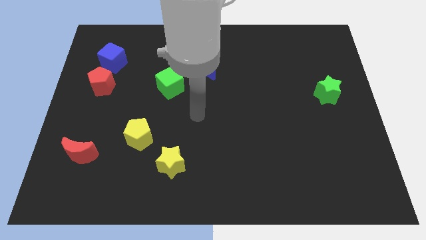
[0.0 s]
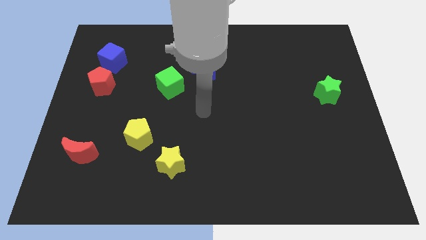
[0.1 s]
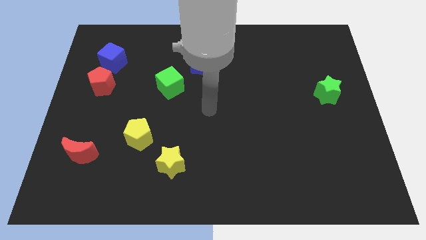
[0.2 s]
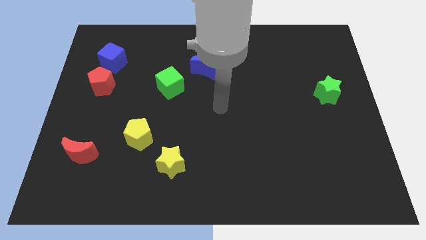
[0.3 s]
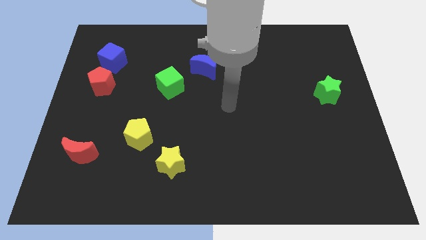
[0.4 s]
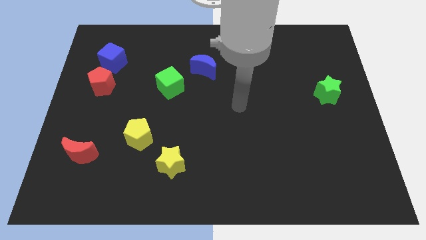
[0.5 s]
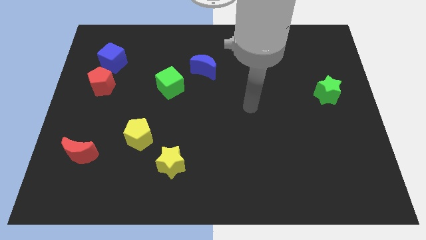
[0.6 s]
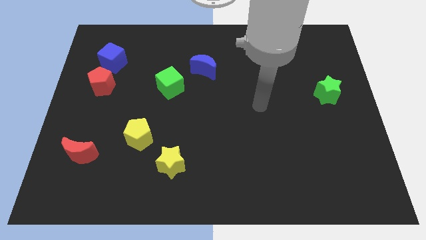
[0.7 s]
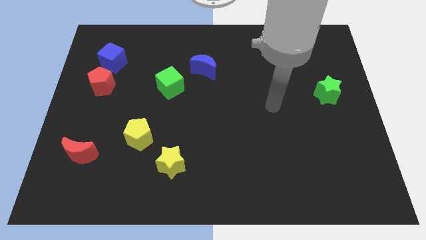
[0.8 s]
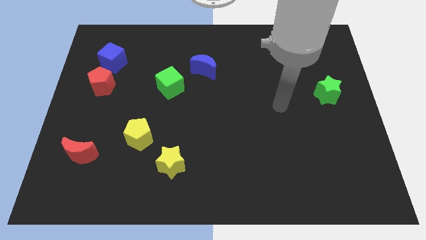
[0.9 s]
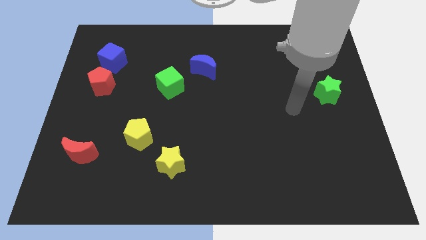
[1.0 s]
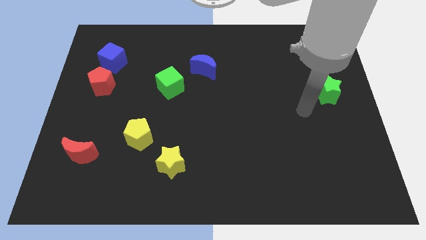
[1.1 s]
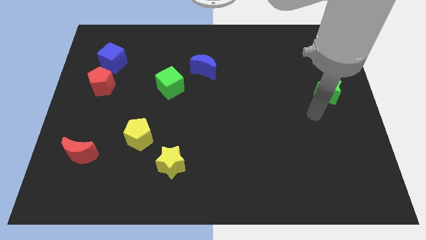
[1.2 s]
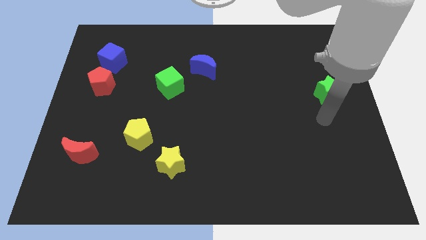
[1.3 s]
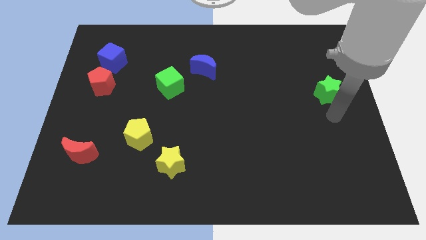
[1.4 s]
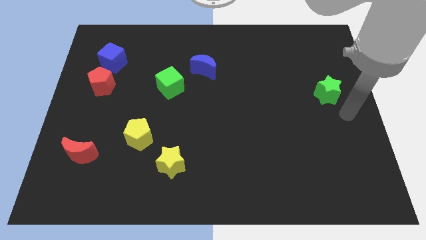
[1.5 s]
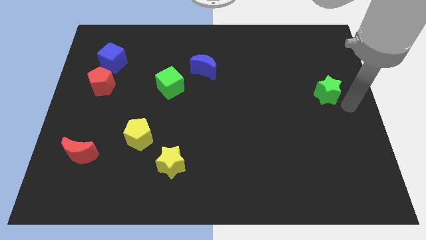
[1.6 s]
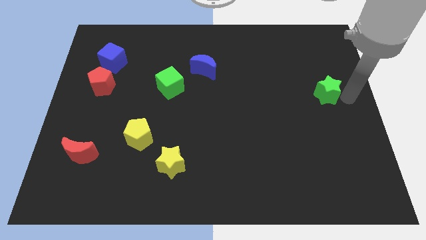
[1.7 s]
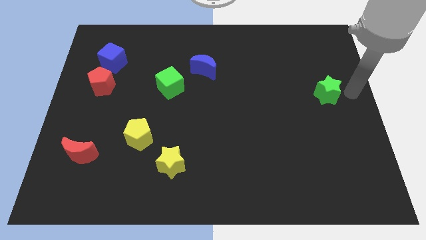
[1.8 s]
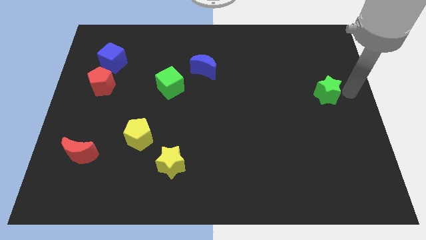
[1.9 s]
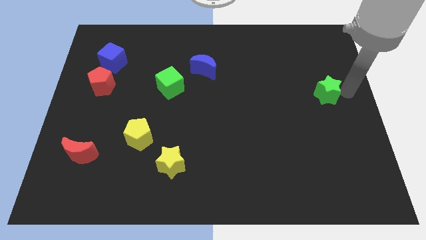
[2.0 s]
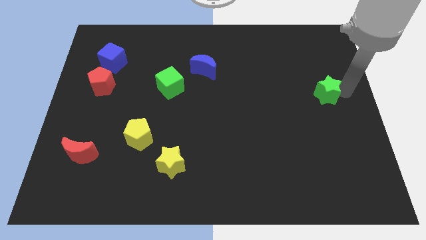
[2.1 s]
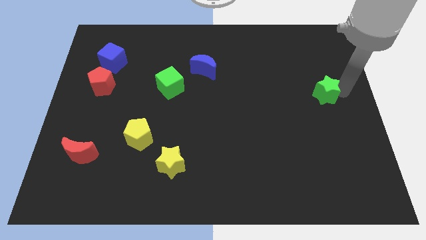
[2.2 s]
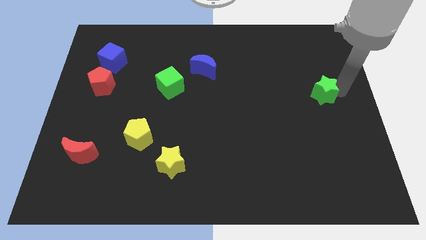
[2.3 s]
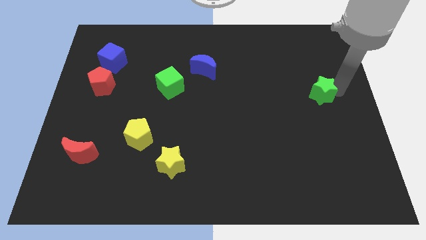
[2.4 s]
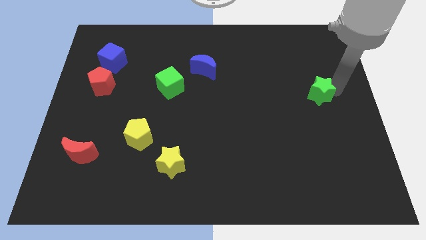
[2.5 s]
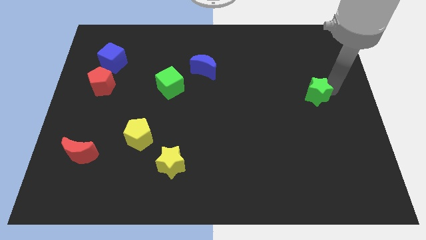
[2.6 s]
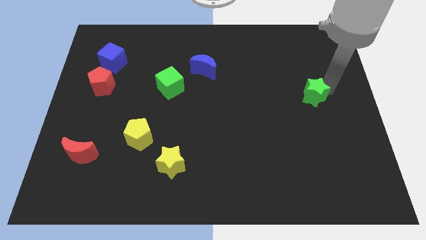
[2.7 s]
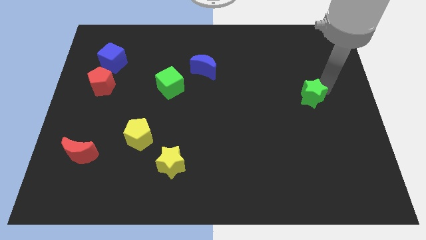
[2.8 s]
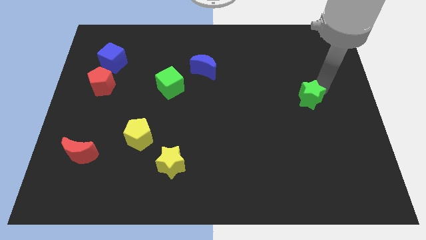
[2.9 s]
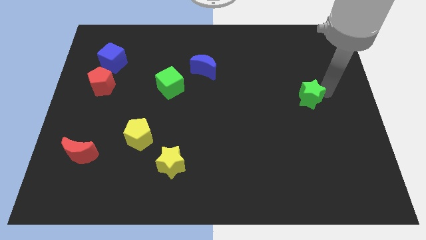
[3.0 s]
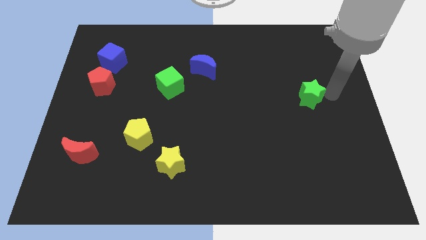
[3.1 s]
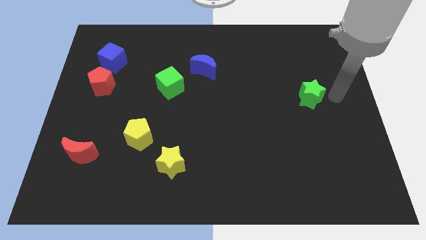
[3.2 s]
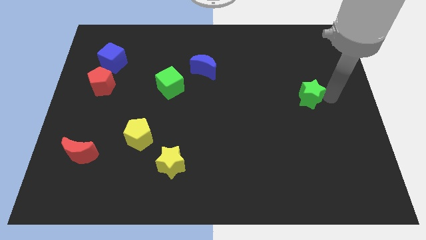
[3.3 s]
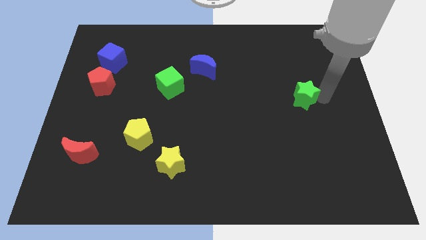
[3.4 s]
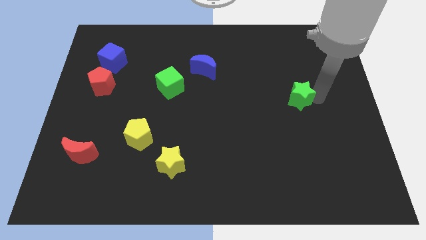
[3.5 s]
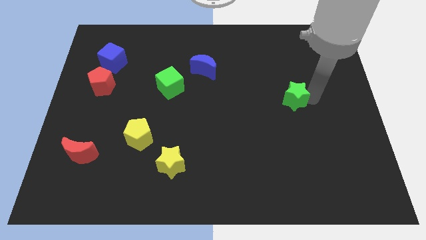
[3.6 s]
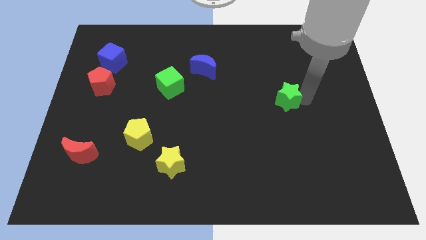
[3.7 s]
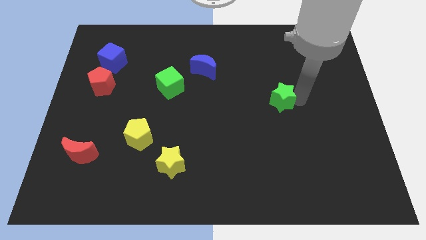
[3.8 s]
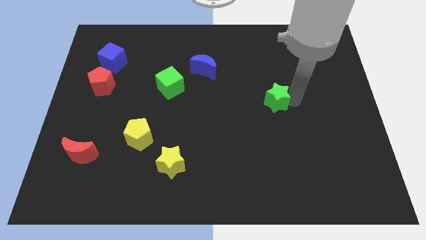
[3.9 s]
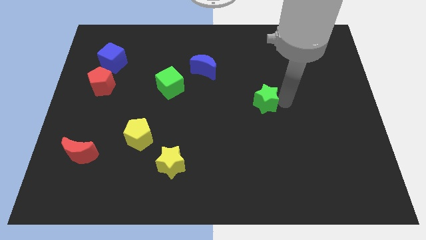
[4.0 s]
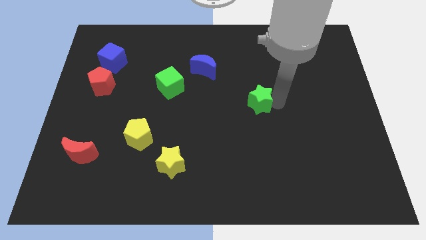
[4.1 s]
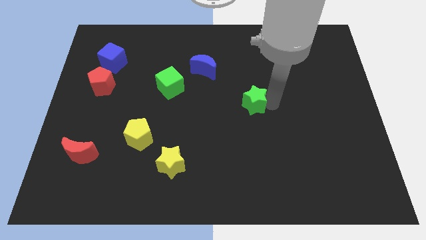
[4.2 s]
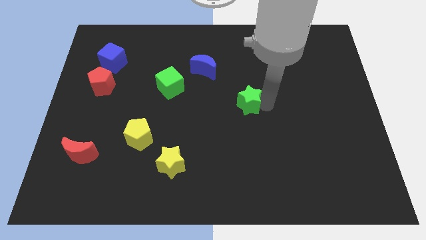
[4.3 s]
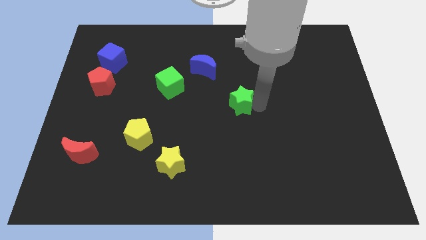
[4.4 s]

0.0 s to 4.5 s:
slide the green star left

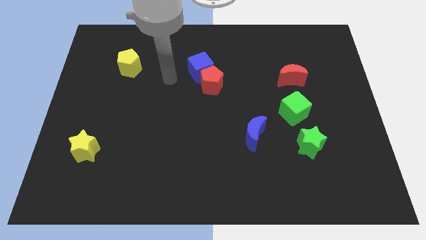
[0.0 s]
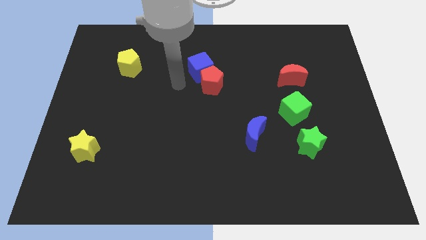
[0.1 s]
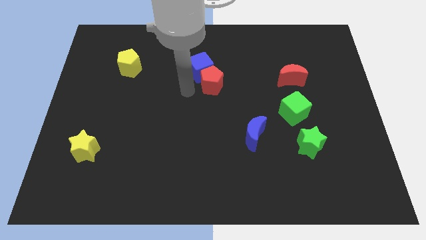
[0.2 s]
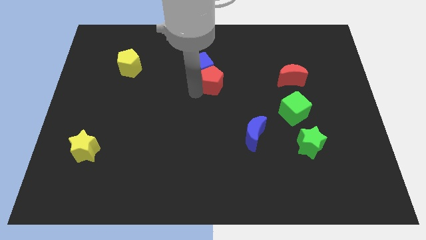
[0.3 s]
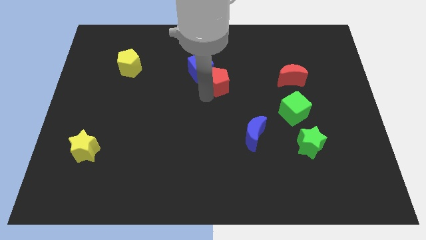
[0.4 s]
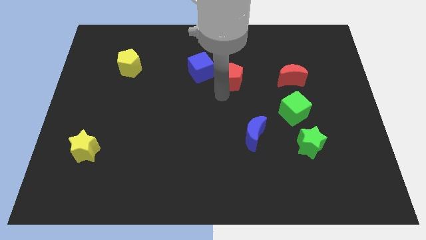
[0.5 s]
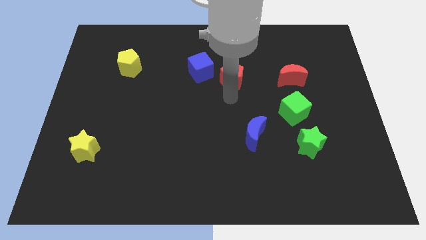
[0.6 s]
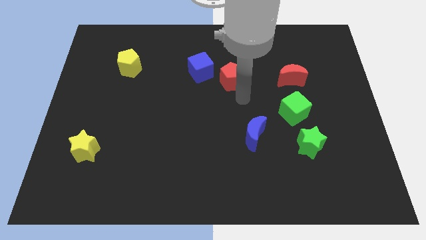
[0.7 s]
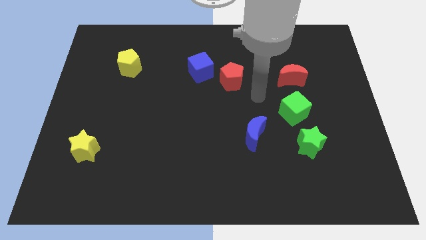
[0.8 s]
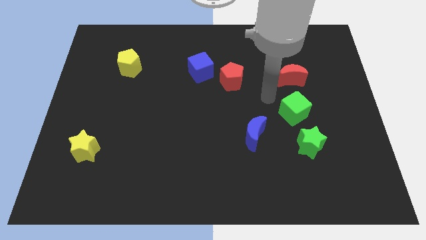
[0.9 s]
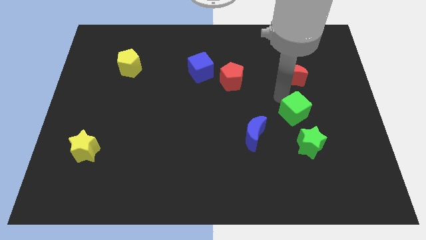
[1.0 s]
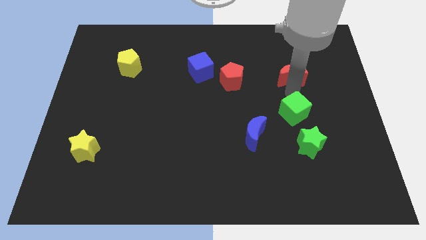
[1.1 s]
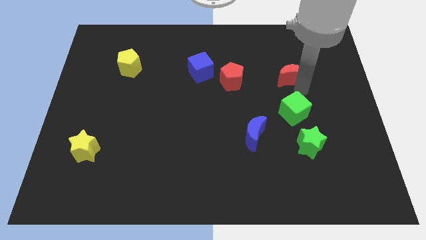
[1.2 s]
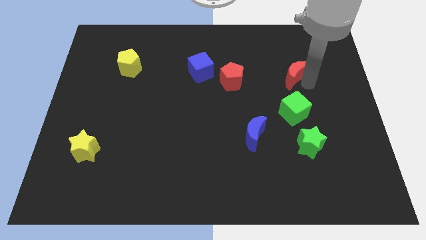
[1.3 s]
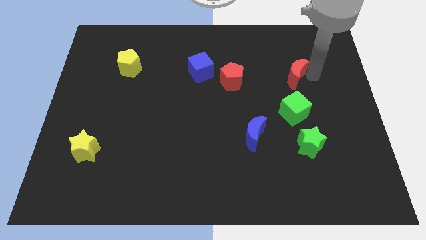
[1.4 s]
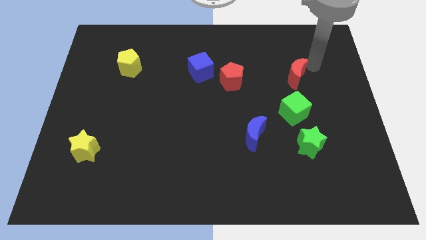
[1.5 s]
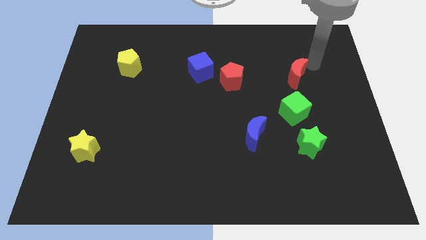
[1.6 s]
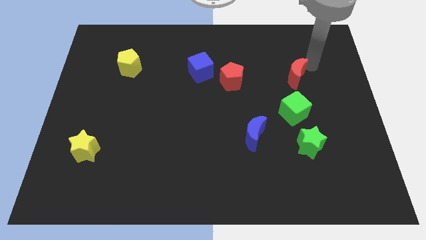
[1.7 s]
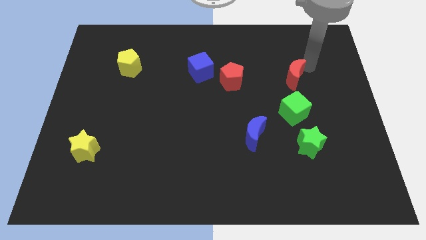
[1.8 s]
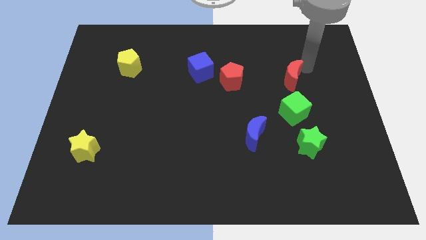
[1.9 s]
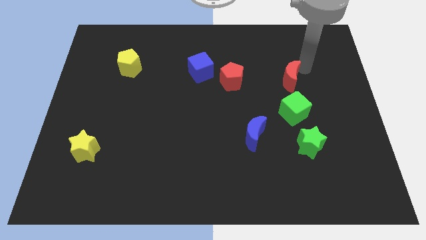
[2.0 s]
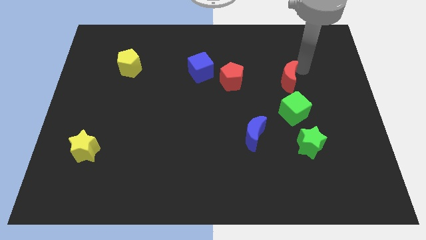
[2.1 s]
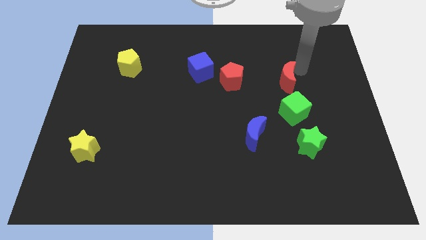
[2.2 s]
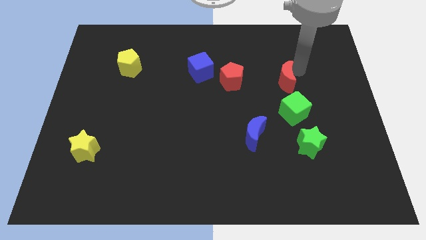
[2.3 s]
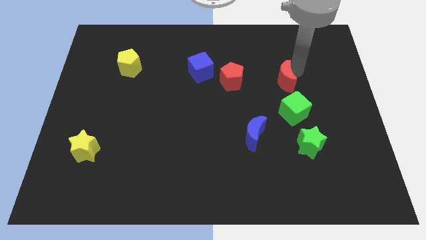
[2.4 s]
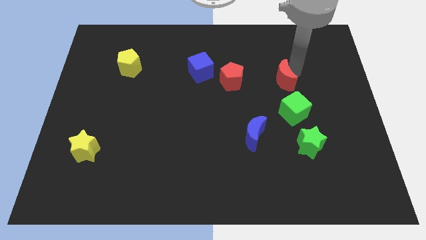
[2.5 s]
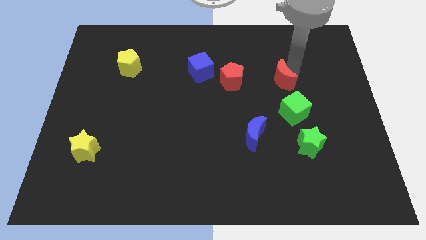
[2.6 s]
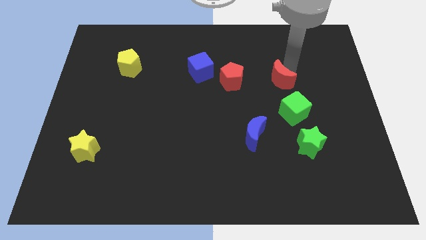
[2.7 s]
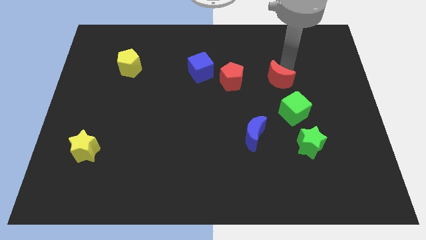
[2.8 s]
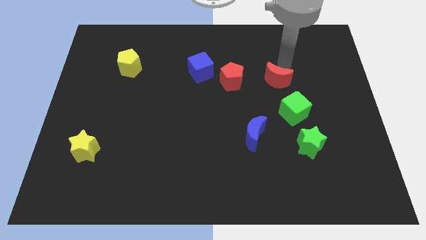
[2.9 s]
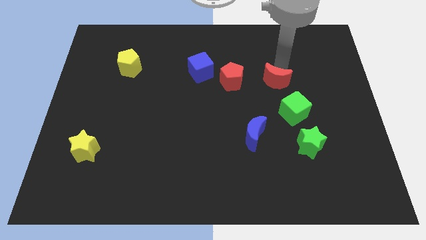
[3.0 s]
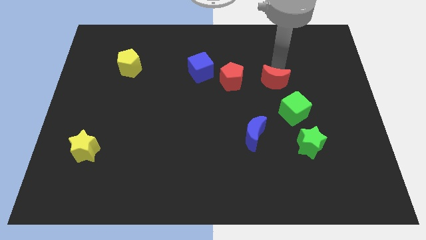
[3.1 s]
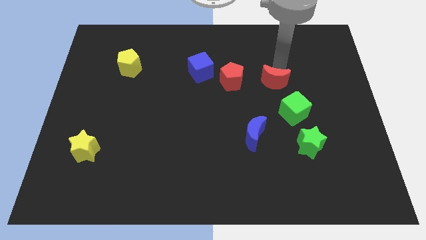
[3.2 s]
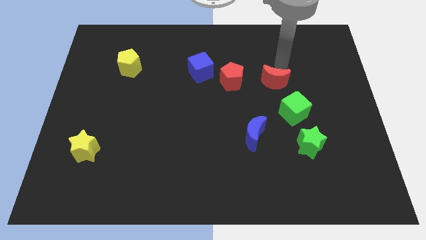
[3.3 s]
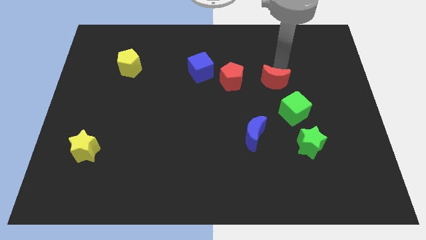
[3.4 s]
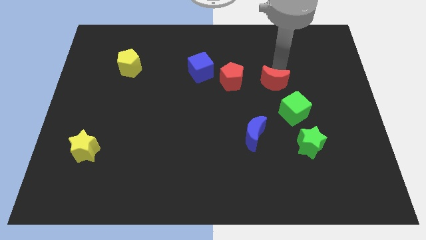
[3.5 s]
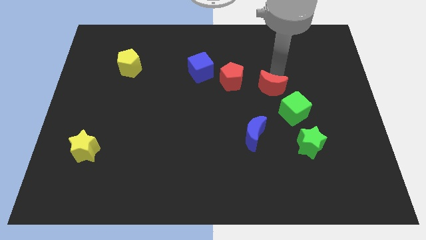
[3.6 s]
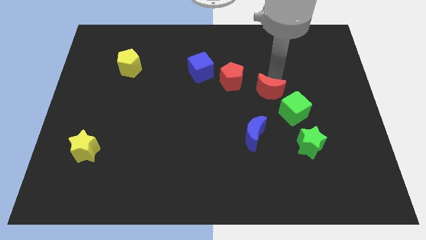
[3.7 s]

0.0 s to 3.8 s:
push the red moon down and then left a little

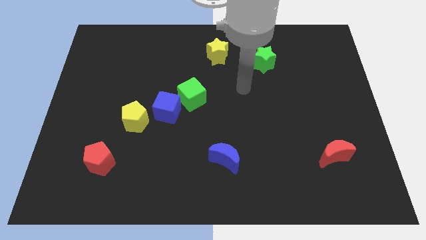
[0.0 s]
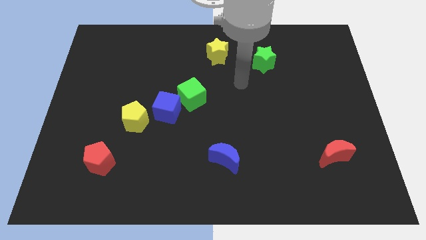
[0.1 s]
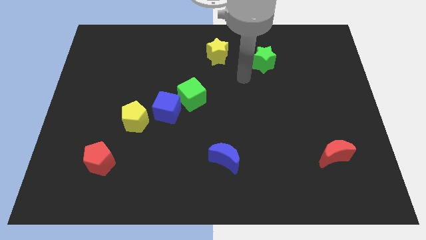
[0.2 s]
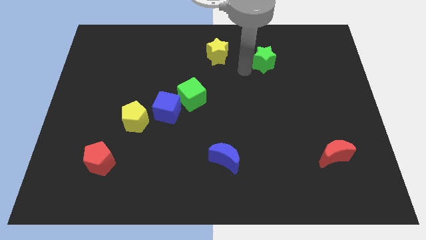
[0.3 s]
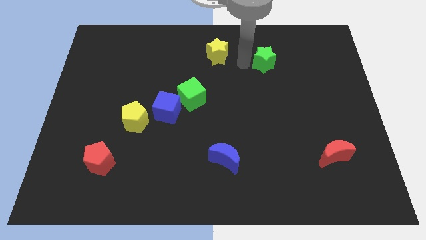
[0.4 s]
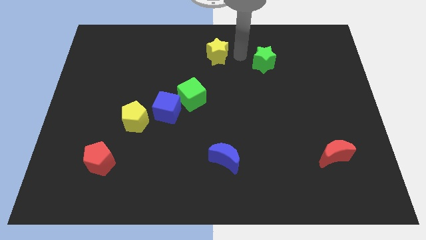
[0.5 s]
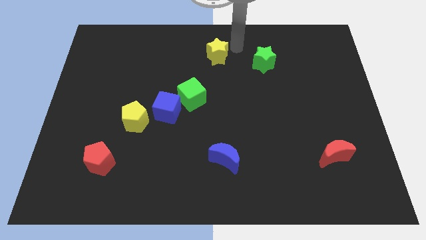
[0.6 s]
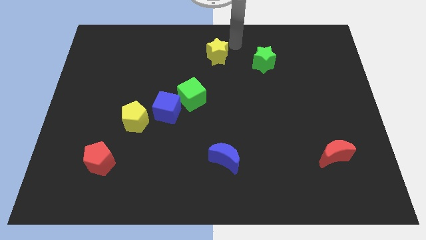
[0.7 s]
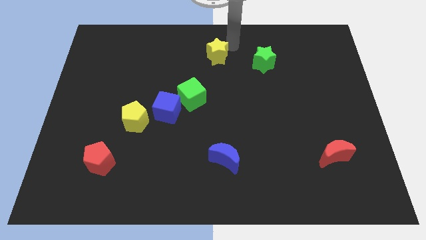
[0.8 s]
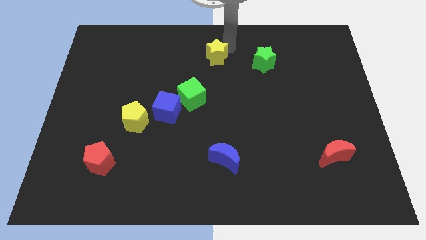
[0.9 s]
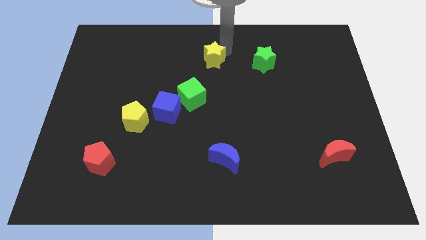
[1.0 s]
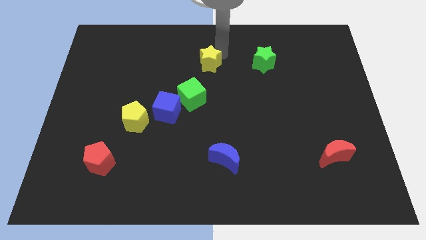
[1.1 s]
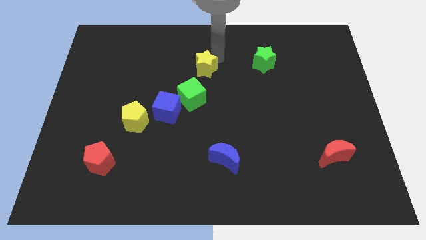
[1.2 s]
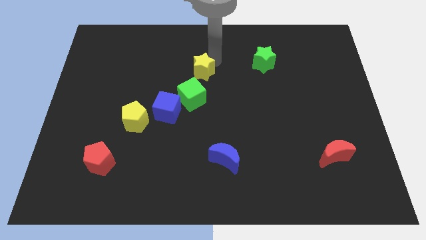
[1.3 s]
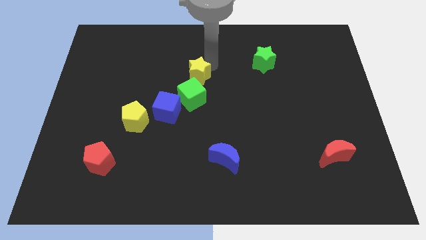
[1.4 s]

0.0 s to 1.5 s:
slightly slide the yellow star down and then to the left
